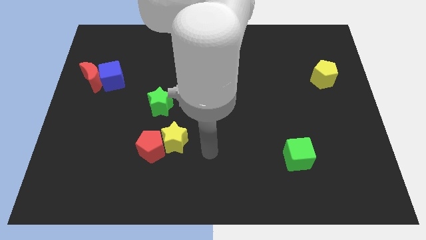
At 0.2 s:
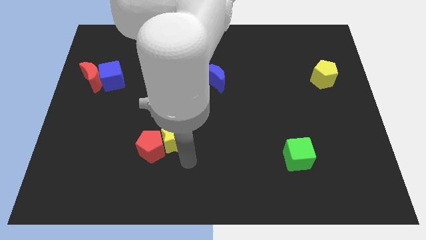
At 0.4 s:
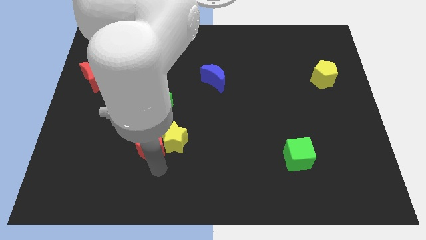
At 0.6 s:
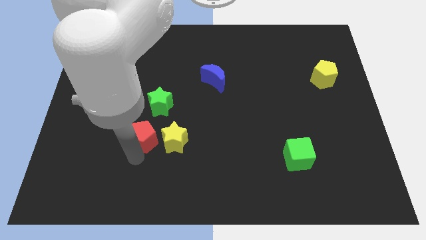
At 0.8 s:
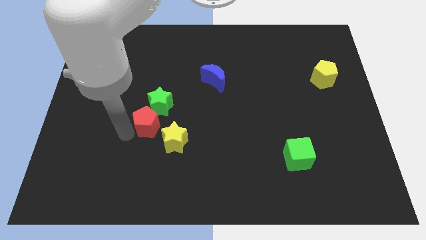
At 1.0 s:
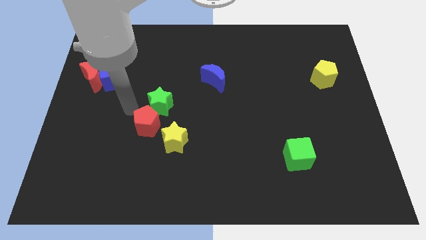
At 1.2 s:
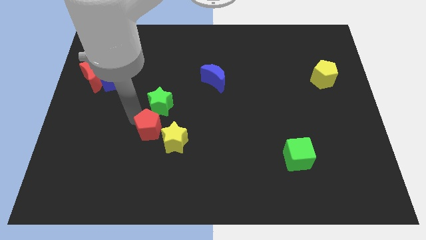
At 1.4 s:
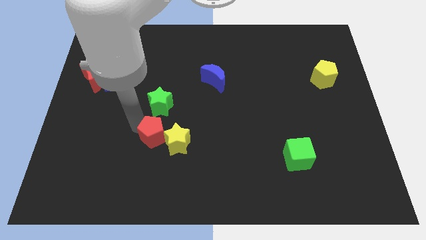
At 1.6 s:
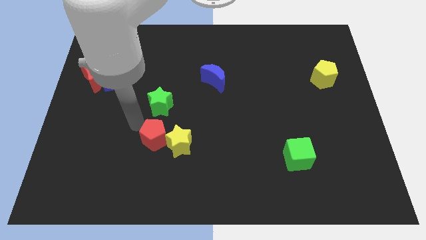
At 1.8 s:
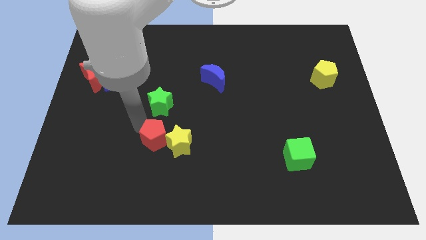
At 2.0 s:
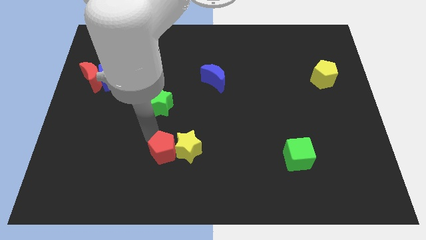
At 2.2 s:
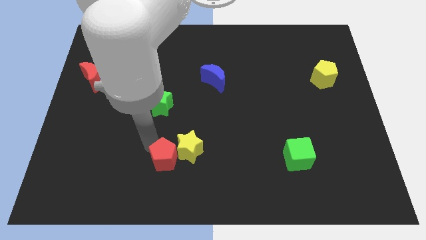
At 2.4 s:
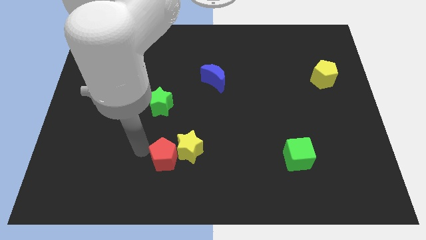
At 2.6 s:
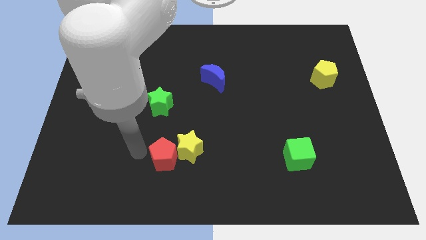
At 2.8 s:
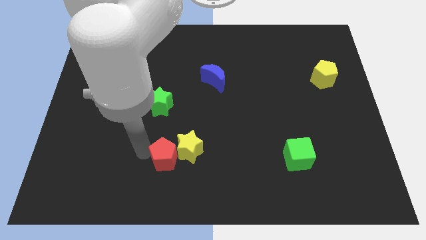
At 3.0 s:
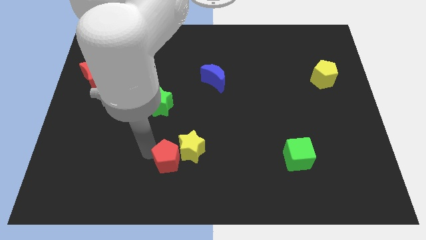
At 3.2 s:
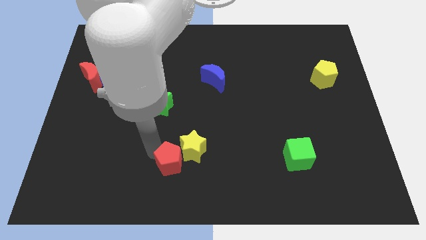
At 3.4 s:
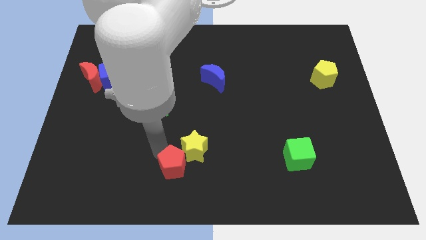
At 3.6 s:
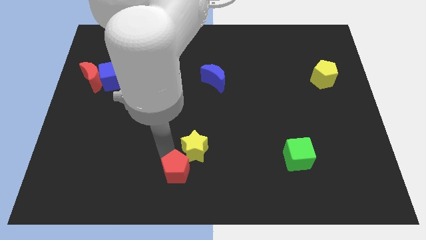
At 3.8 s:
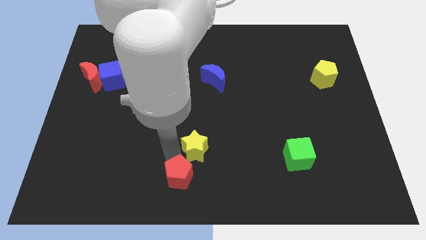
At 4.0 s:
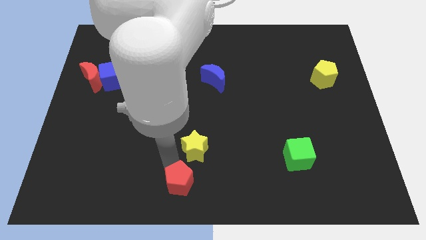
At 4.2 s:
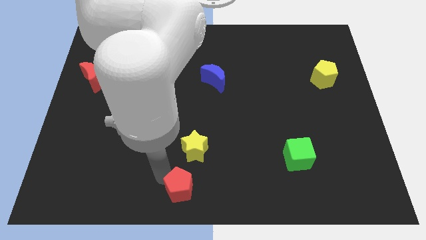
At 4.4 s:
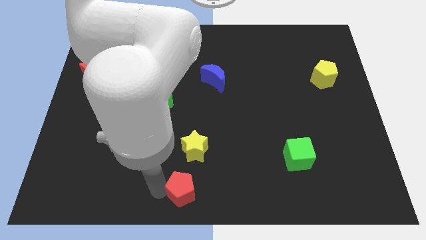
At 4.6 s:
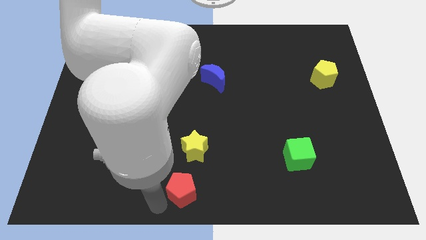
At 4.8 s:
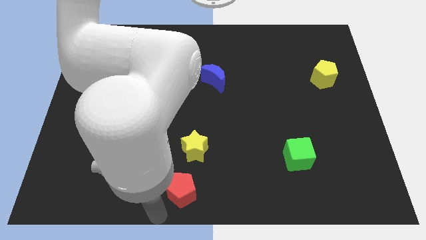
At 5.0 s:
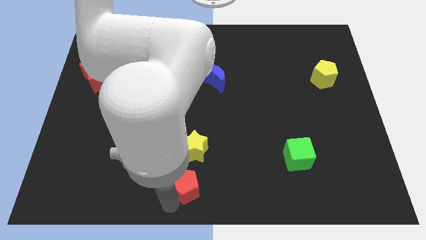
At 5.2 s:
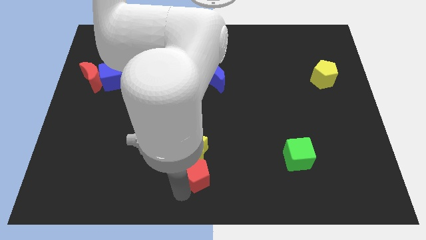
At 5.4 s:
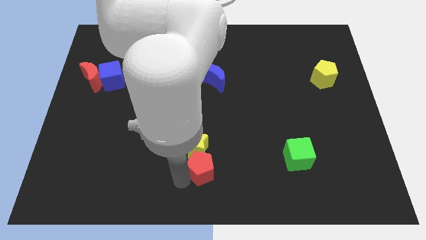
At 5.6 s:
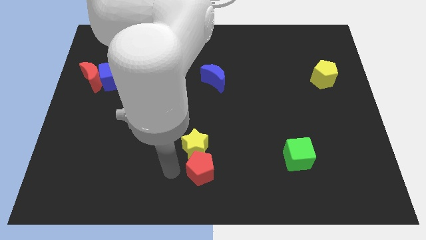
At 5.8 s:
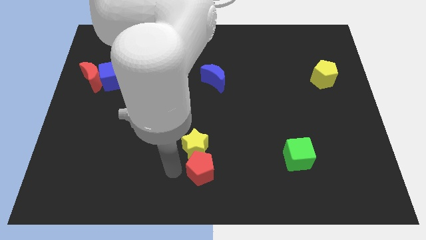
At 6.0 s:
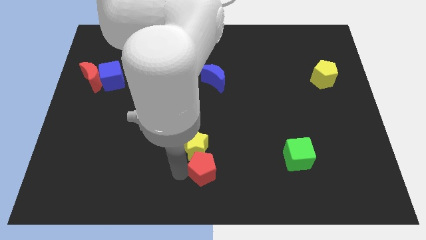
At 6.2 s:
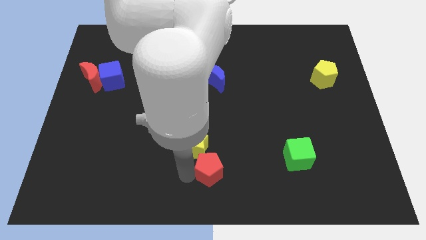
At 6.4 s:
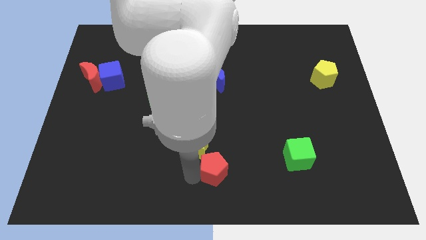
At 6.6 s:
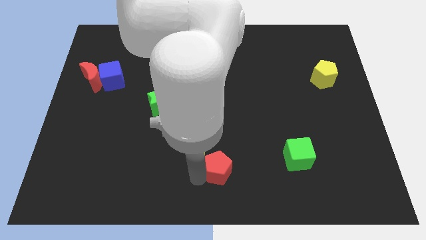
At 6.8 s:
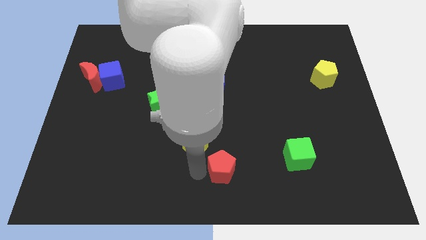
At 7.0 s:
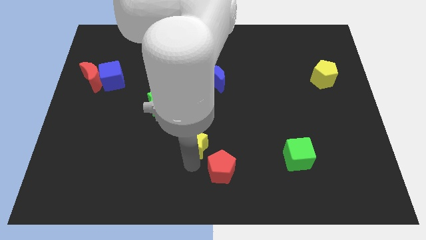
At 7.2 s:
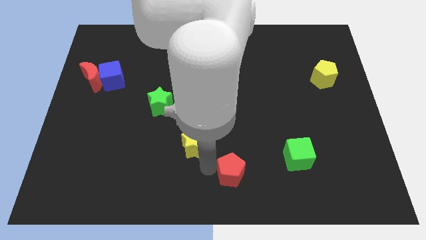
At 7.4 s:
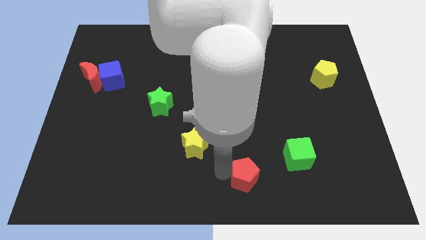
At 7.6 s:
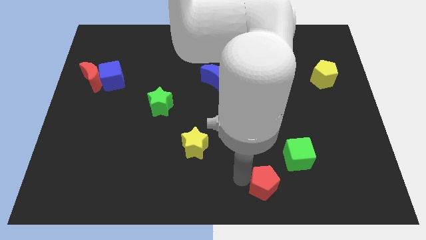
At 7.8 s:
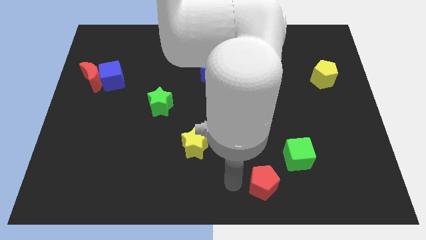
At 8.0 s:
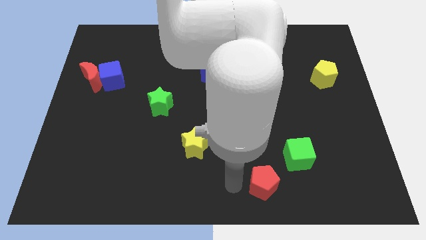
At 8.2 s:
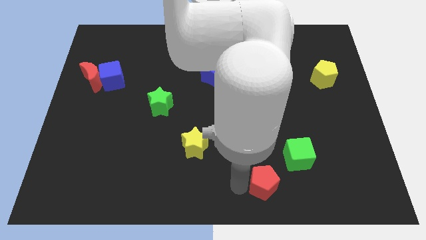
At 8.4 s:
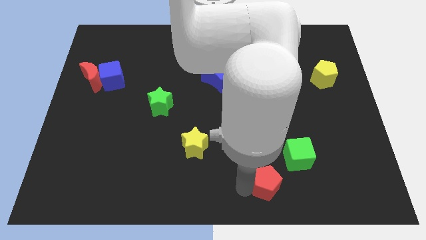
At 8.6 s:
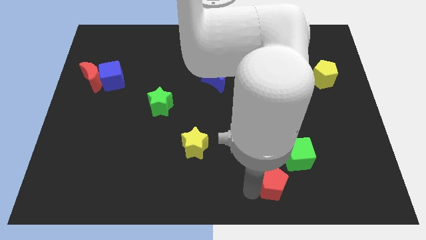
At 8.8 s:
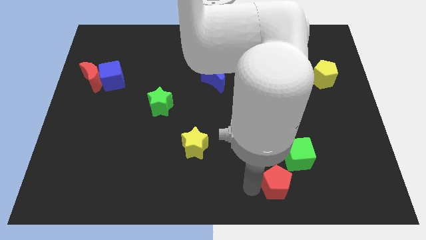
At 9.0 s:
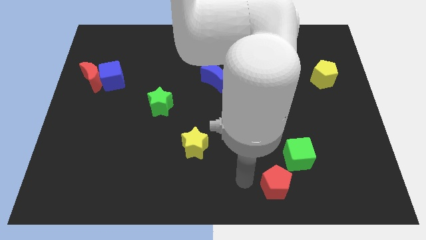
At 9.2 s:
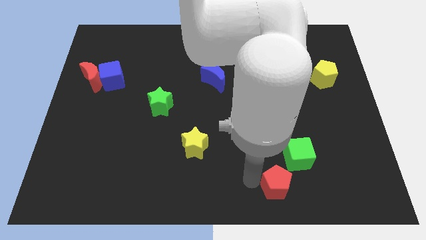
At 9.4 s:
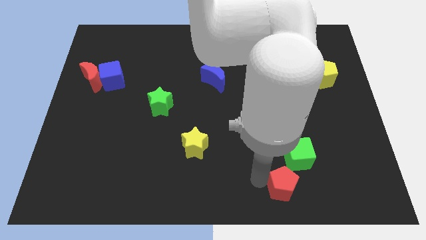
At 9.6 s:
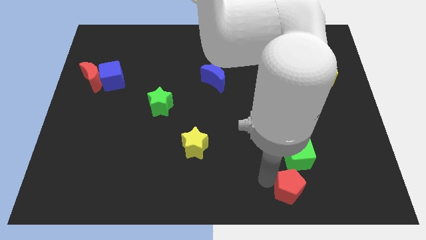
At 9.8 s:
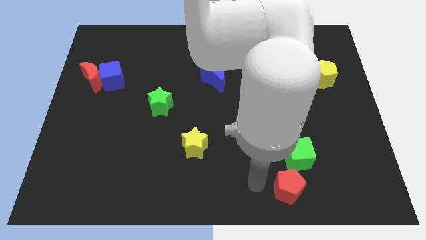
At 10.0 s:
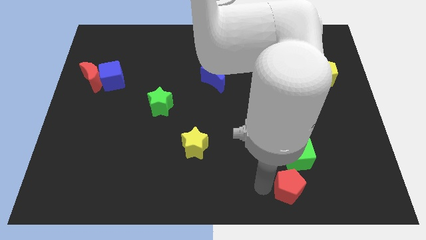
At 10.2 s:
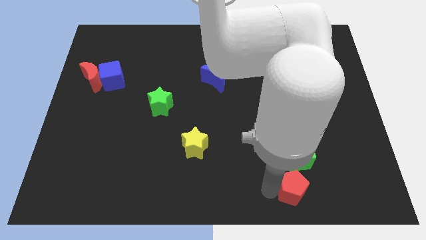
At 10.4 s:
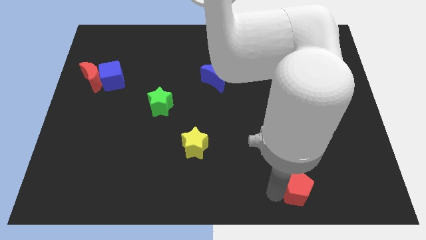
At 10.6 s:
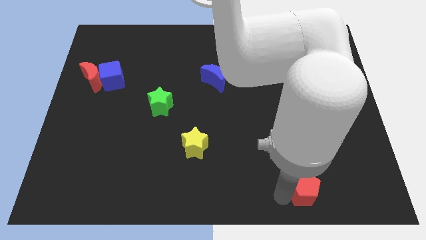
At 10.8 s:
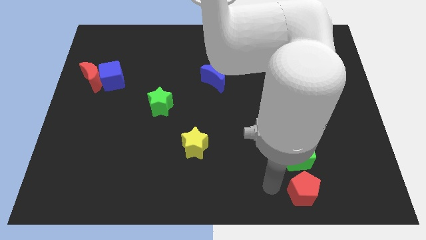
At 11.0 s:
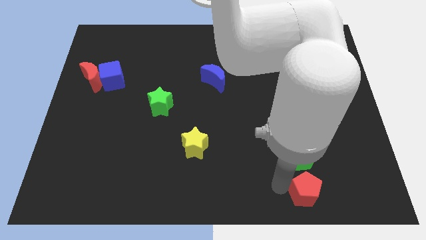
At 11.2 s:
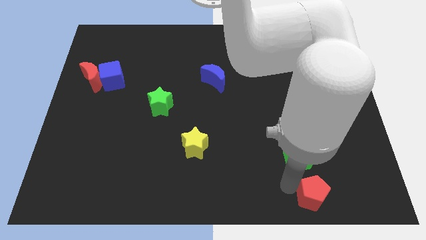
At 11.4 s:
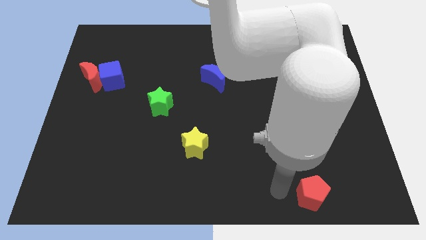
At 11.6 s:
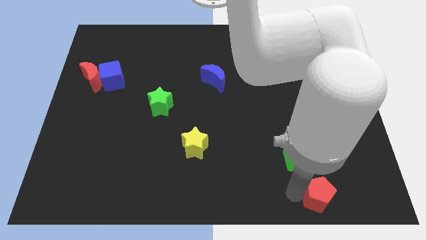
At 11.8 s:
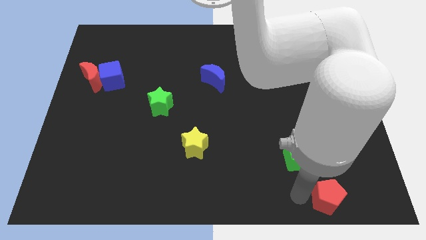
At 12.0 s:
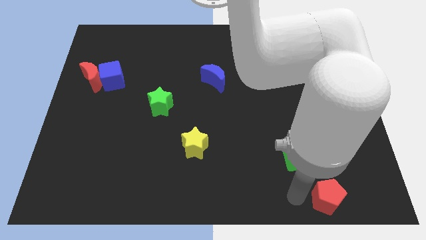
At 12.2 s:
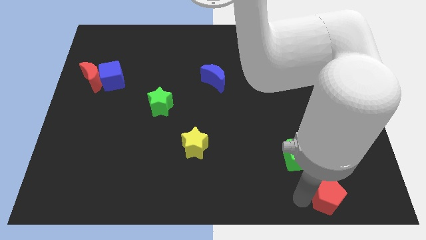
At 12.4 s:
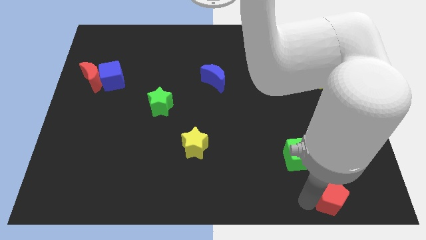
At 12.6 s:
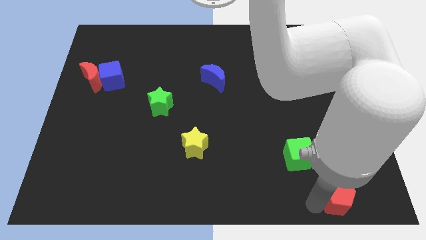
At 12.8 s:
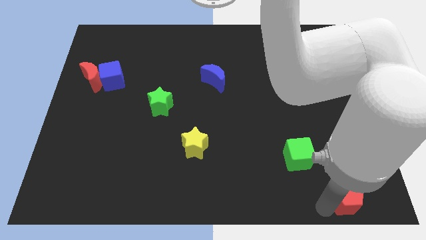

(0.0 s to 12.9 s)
slide the red pentagon to the bottom right corner

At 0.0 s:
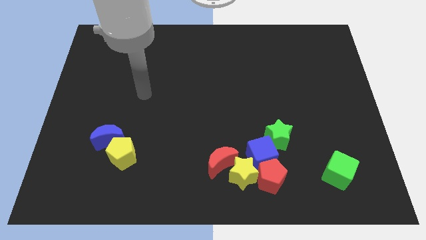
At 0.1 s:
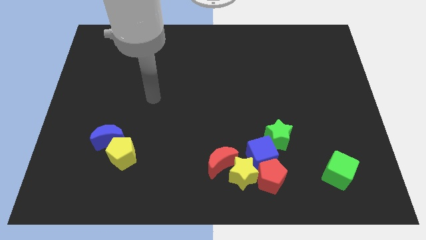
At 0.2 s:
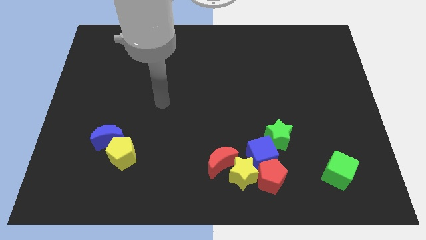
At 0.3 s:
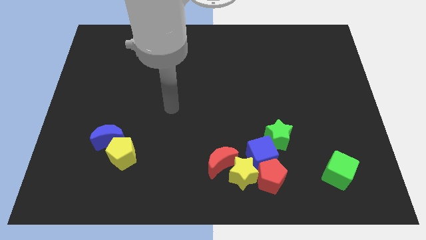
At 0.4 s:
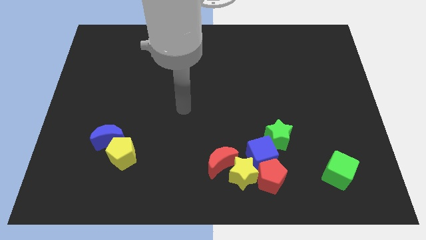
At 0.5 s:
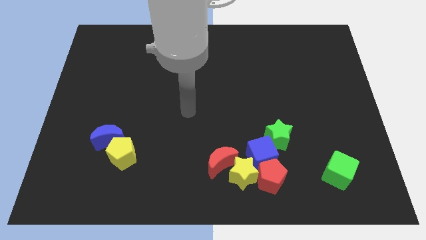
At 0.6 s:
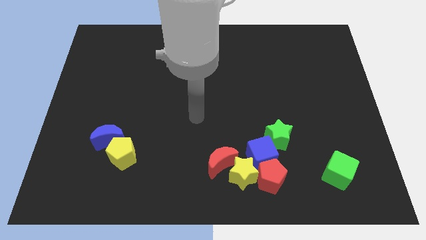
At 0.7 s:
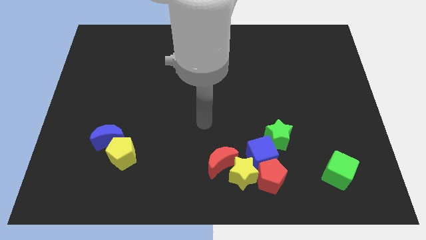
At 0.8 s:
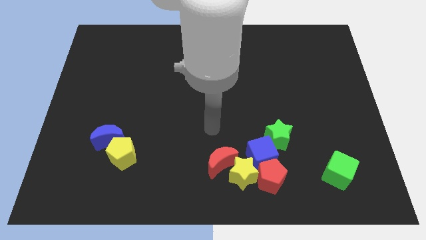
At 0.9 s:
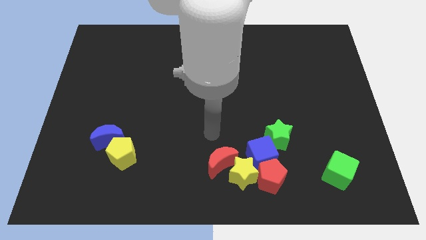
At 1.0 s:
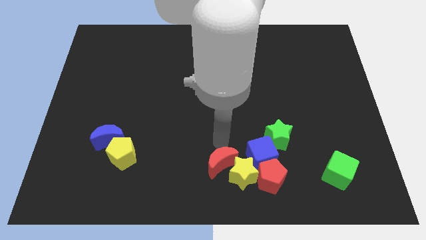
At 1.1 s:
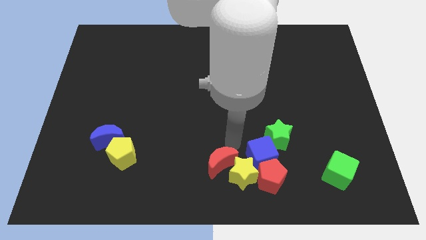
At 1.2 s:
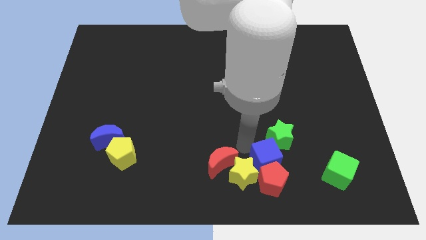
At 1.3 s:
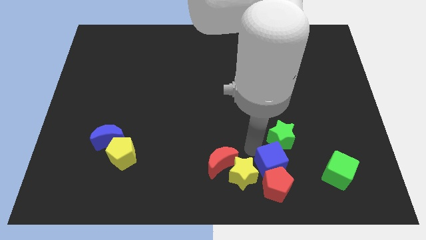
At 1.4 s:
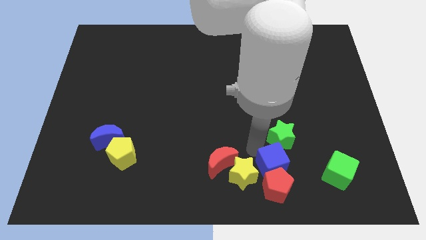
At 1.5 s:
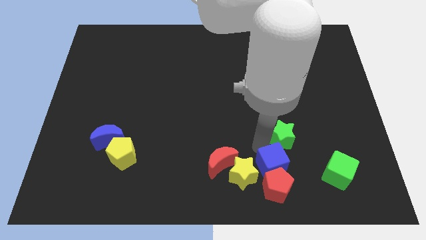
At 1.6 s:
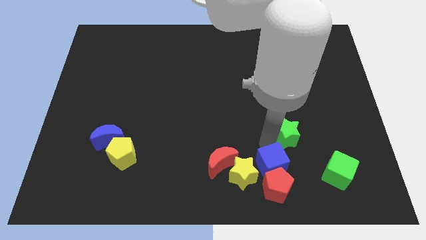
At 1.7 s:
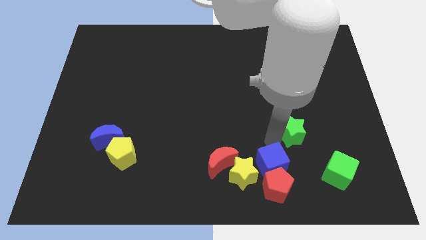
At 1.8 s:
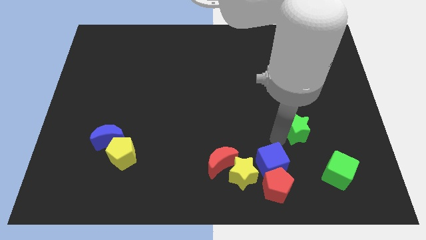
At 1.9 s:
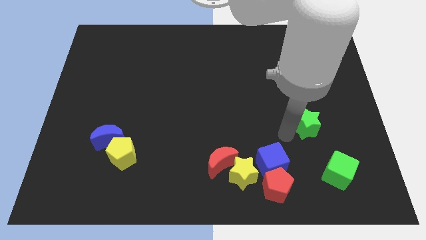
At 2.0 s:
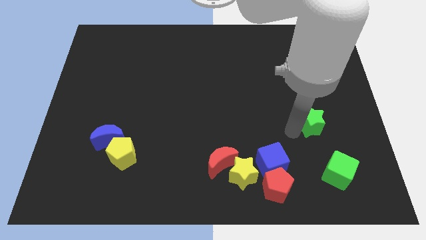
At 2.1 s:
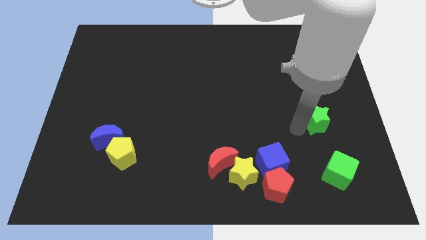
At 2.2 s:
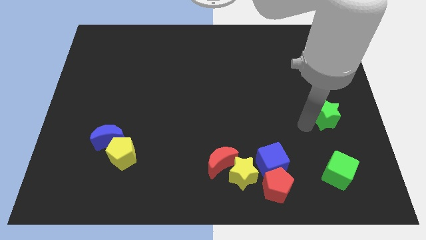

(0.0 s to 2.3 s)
slide the green star to the right side
